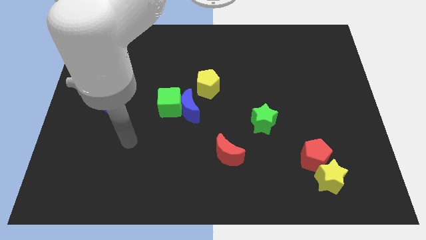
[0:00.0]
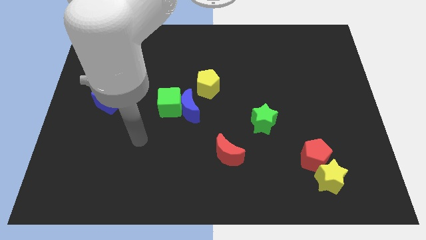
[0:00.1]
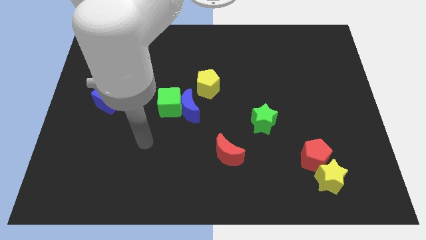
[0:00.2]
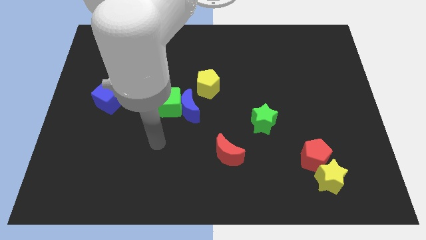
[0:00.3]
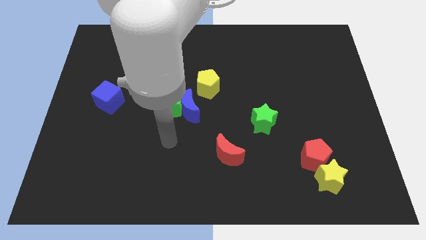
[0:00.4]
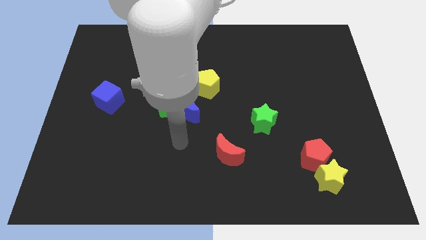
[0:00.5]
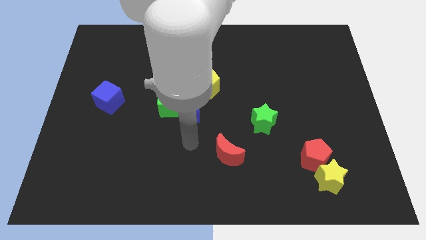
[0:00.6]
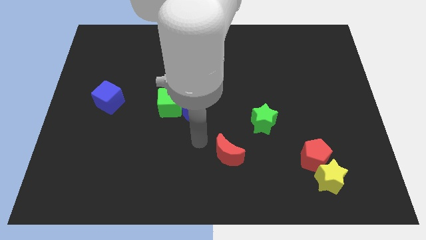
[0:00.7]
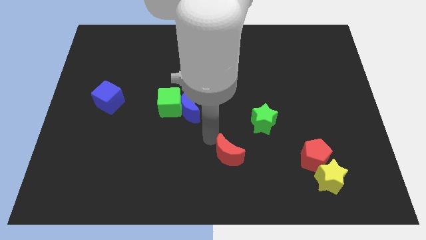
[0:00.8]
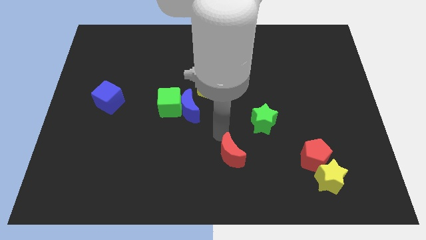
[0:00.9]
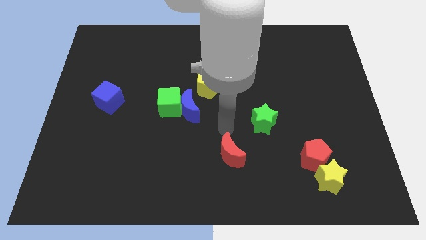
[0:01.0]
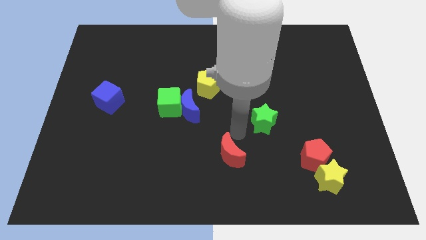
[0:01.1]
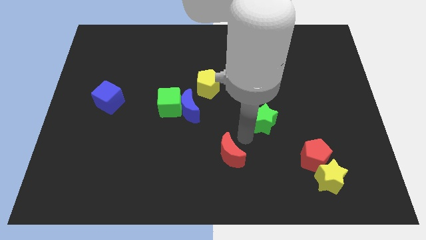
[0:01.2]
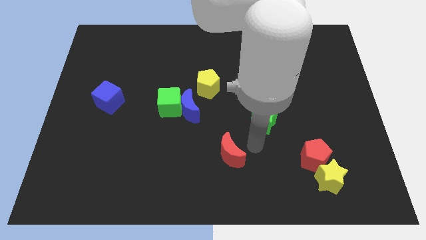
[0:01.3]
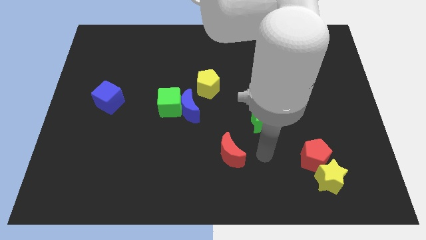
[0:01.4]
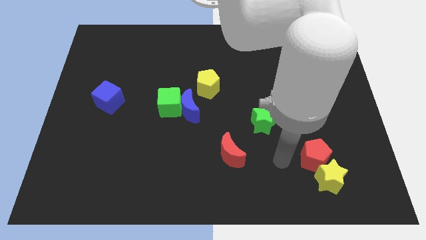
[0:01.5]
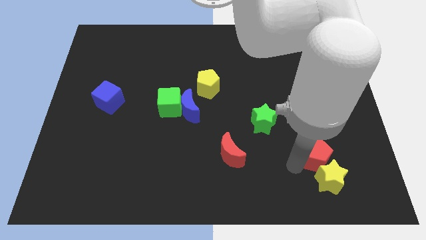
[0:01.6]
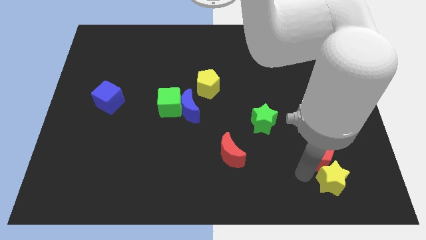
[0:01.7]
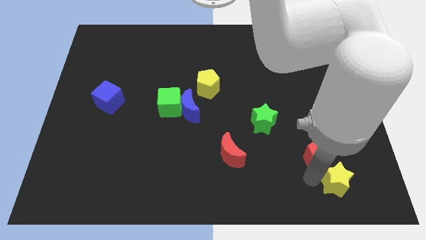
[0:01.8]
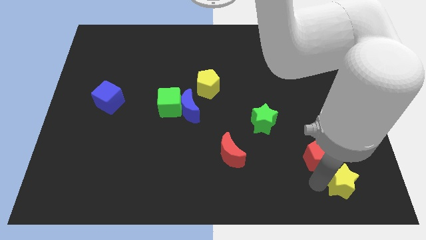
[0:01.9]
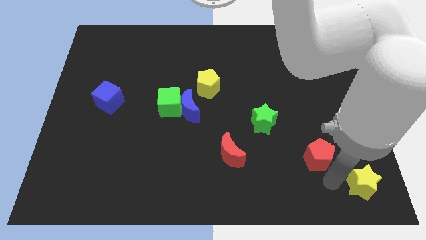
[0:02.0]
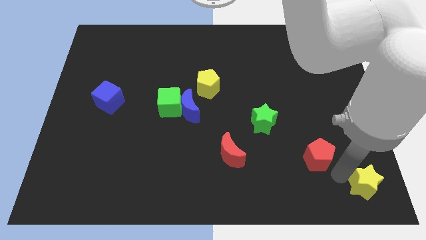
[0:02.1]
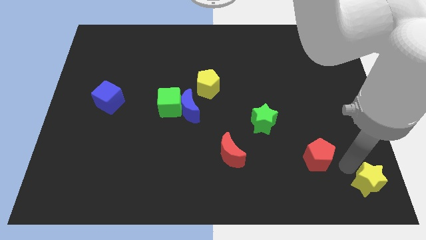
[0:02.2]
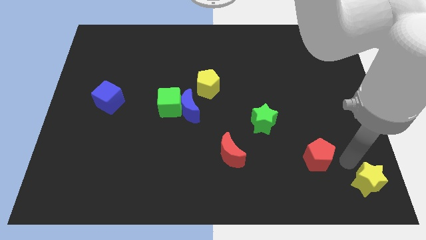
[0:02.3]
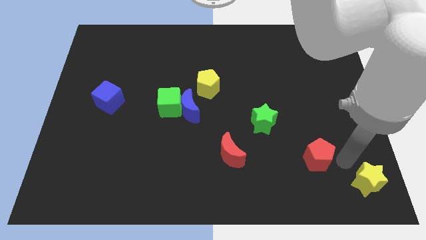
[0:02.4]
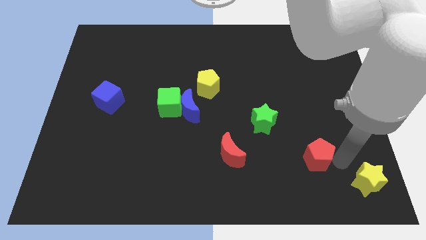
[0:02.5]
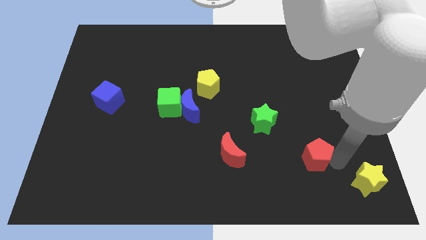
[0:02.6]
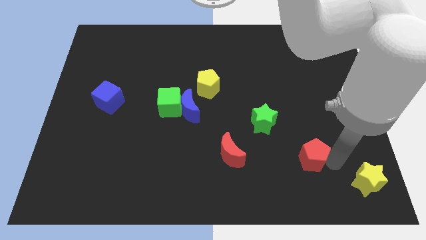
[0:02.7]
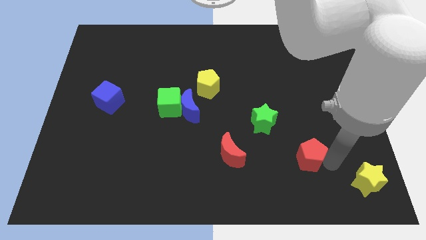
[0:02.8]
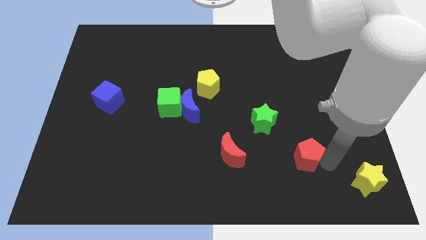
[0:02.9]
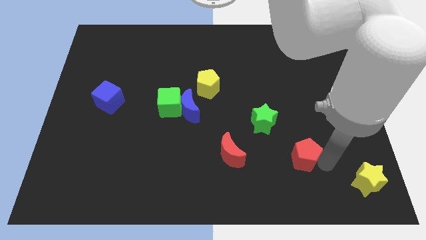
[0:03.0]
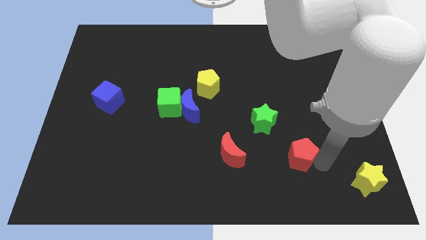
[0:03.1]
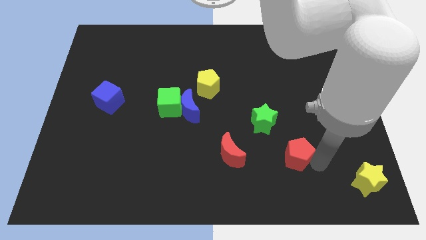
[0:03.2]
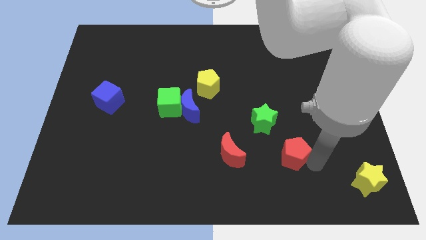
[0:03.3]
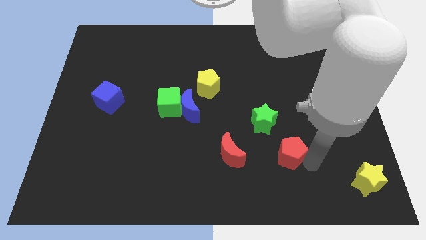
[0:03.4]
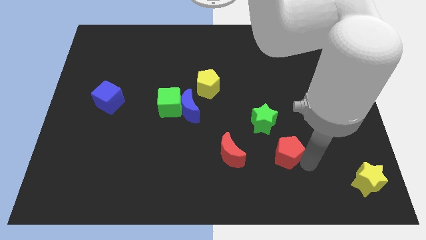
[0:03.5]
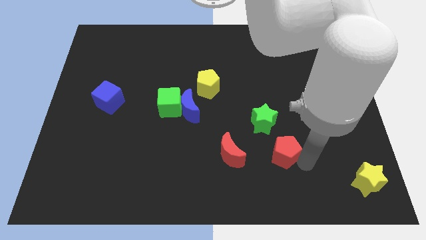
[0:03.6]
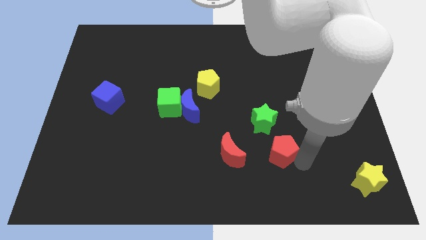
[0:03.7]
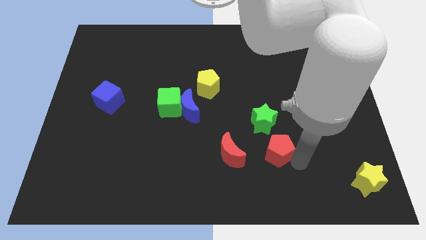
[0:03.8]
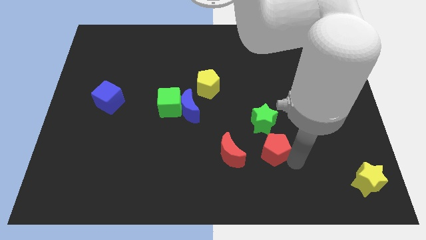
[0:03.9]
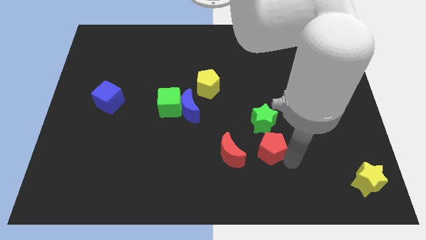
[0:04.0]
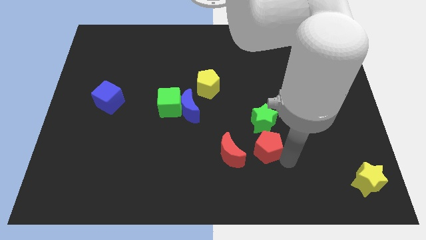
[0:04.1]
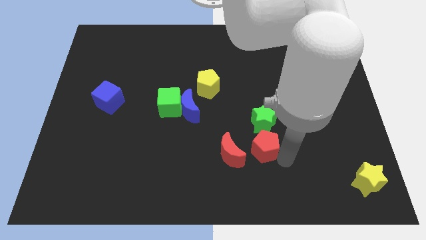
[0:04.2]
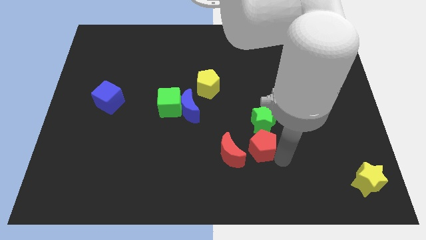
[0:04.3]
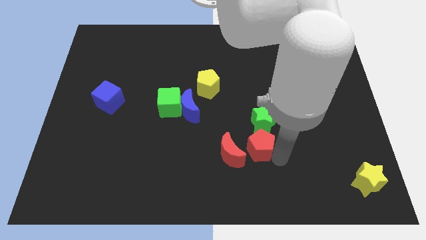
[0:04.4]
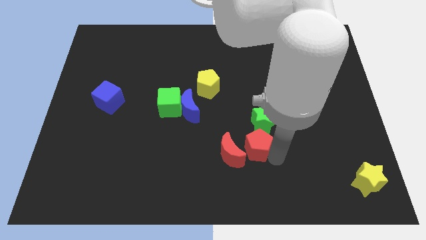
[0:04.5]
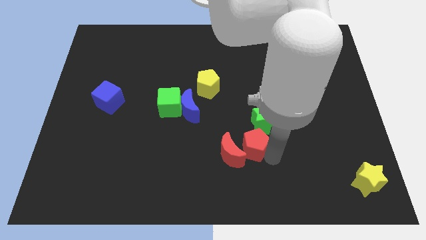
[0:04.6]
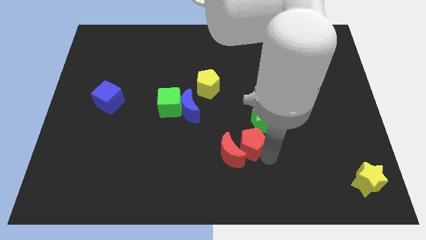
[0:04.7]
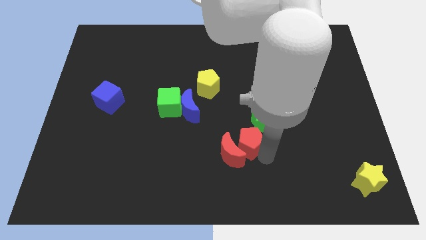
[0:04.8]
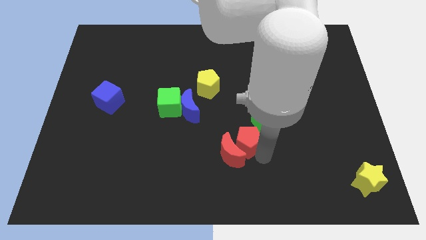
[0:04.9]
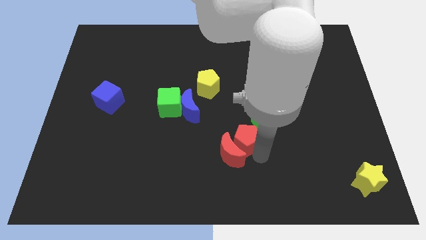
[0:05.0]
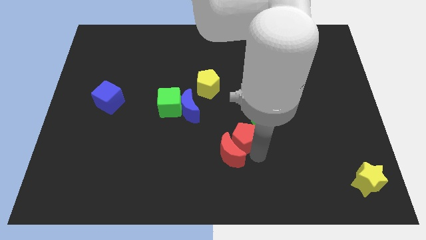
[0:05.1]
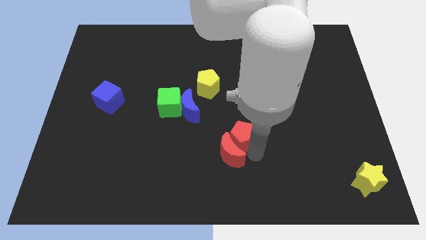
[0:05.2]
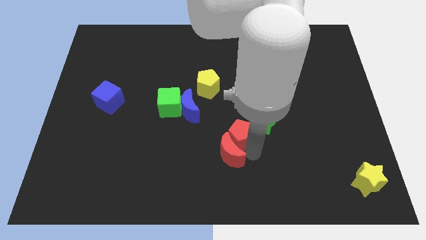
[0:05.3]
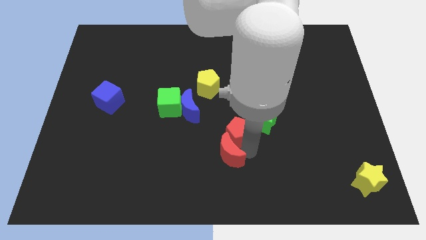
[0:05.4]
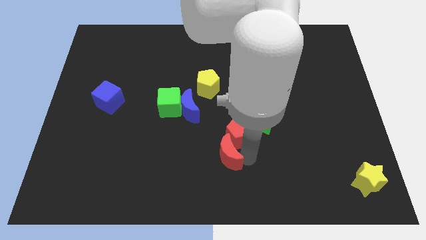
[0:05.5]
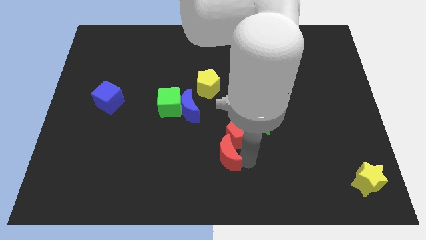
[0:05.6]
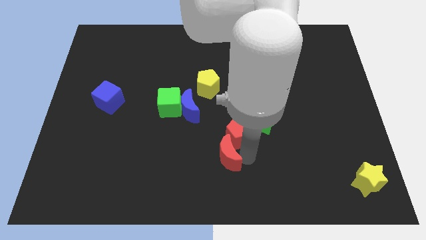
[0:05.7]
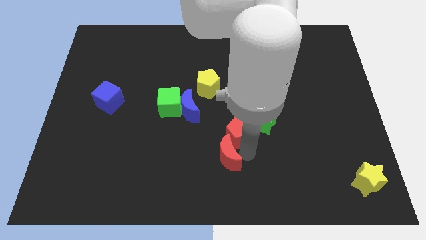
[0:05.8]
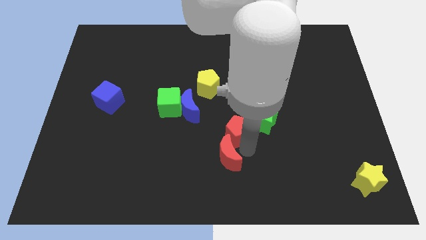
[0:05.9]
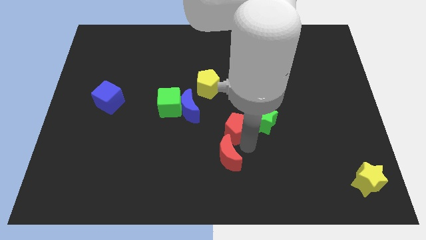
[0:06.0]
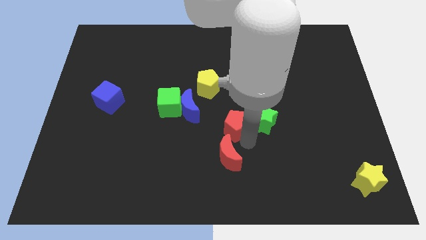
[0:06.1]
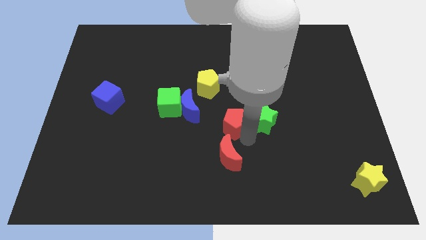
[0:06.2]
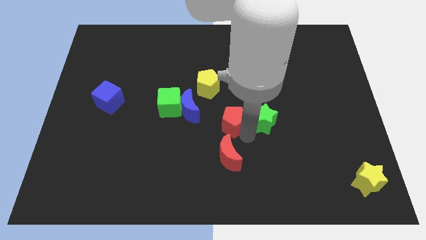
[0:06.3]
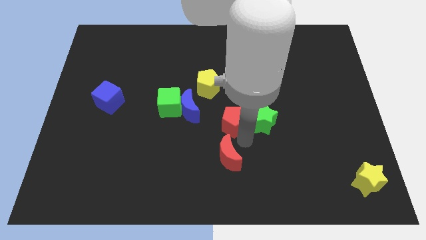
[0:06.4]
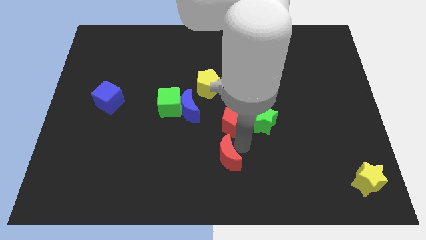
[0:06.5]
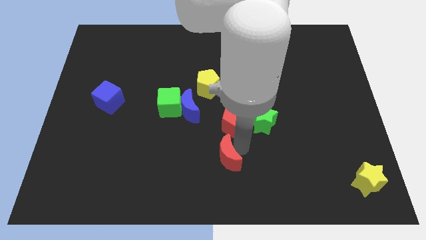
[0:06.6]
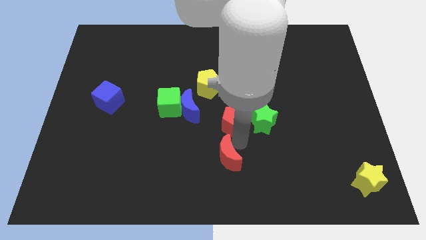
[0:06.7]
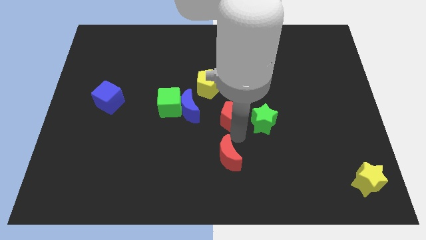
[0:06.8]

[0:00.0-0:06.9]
slide the red pentagon to the bottom right of the yellow pentagon

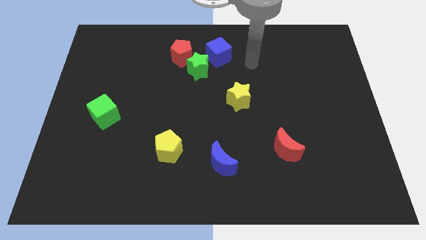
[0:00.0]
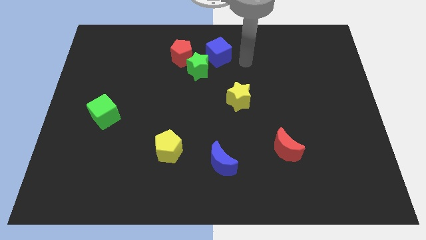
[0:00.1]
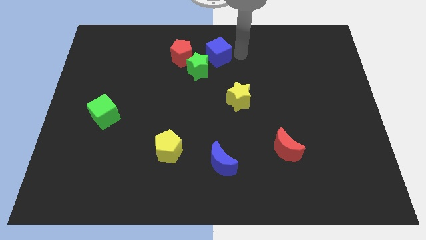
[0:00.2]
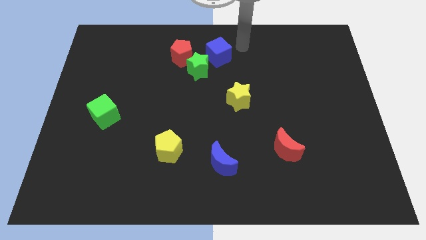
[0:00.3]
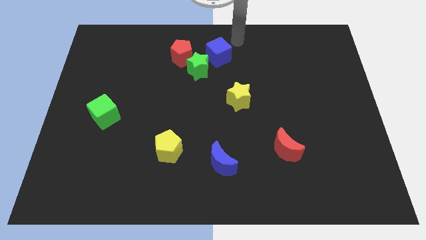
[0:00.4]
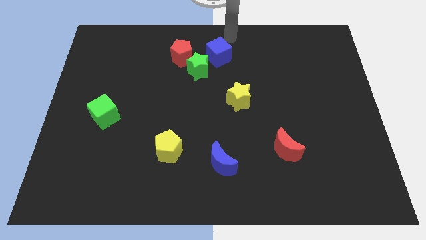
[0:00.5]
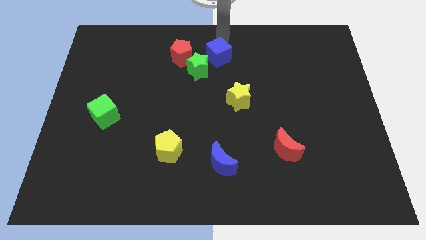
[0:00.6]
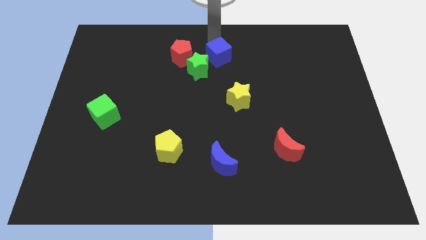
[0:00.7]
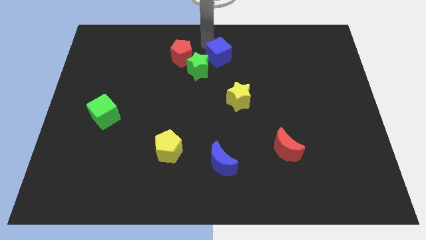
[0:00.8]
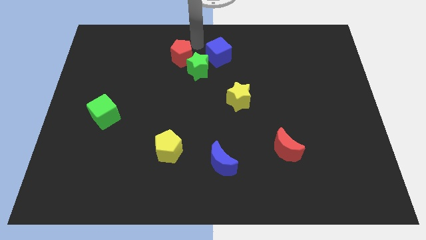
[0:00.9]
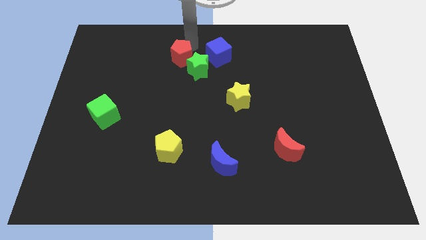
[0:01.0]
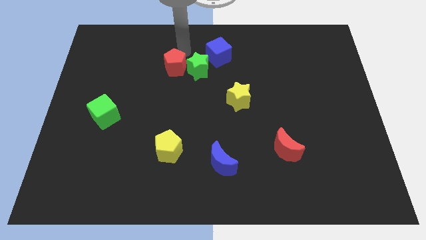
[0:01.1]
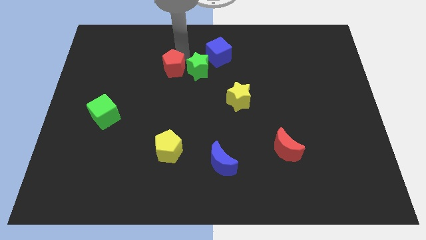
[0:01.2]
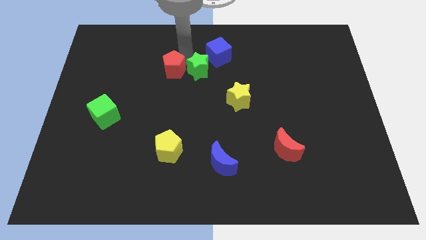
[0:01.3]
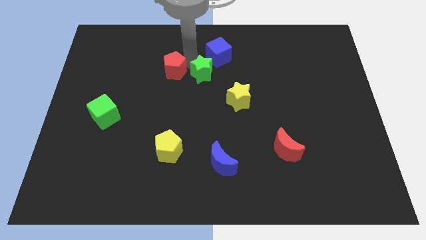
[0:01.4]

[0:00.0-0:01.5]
slide the green star to the top left of the yellow star
